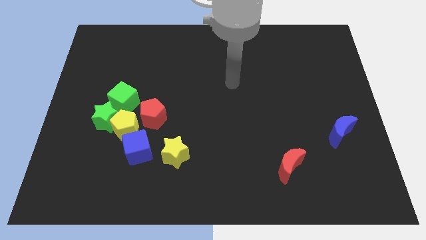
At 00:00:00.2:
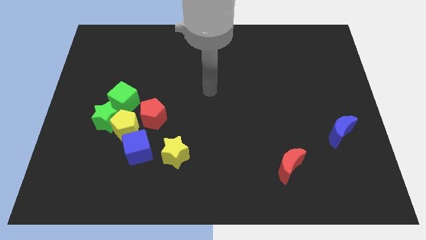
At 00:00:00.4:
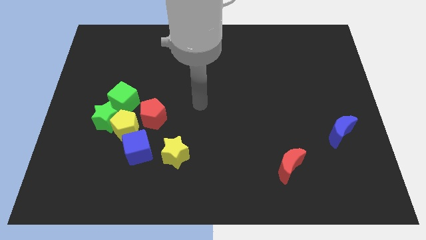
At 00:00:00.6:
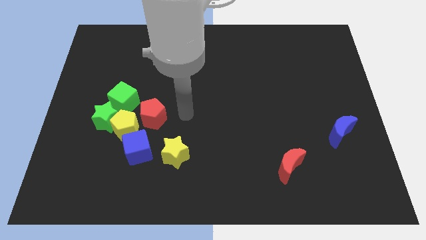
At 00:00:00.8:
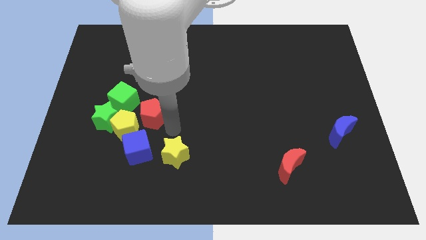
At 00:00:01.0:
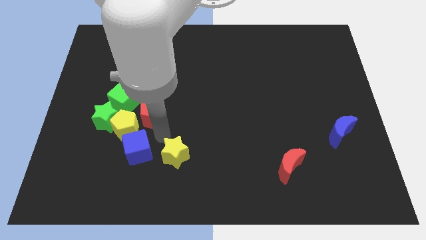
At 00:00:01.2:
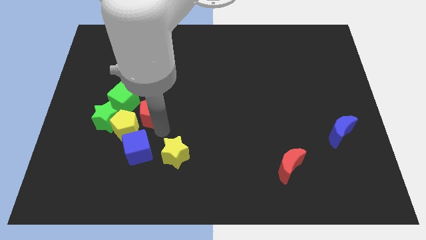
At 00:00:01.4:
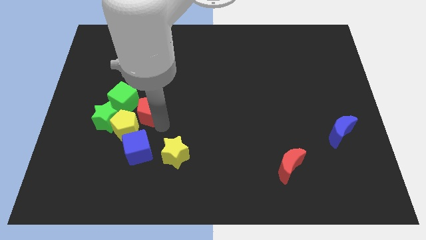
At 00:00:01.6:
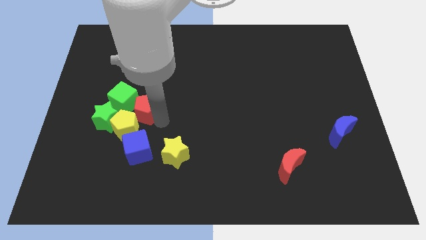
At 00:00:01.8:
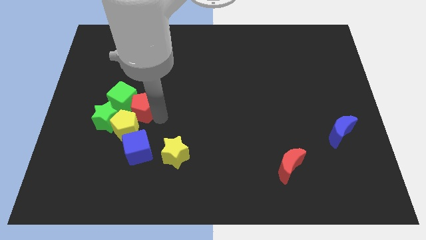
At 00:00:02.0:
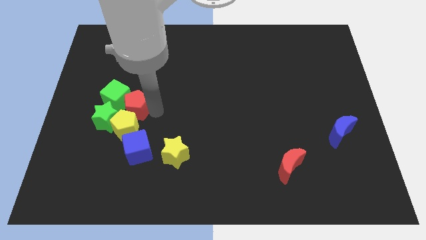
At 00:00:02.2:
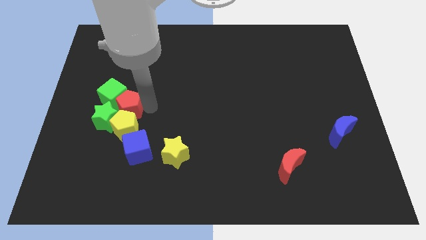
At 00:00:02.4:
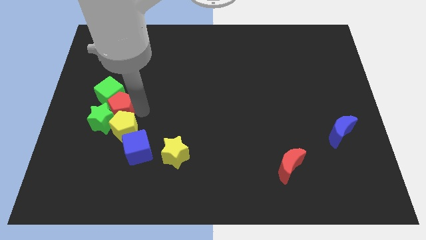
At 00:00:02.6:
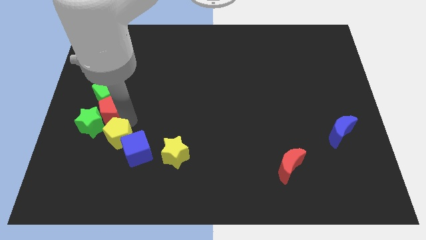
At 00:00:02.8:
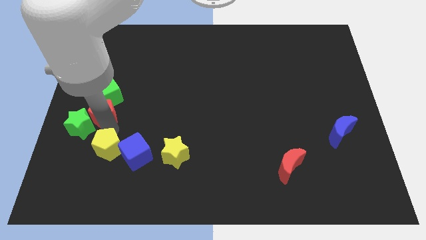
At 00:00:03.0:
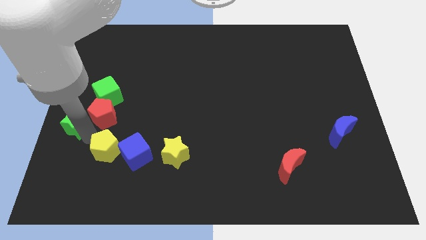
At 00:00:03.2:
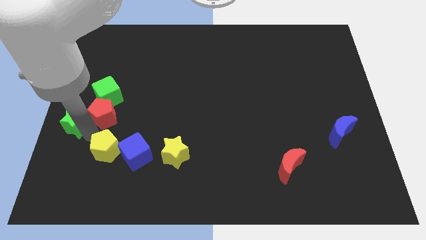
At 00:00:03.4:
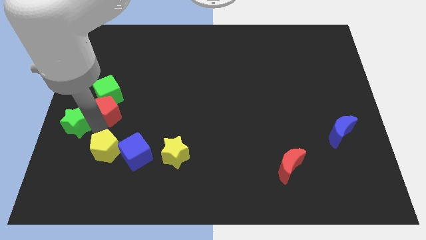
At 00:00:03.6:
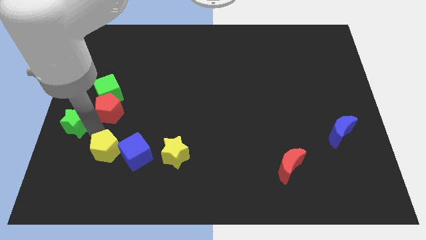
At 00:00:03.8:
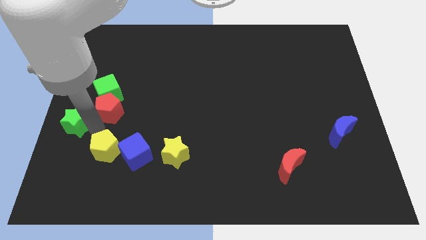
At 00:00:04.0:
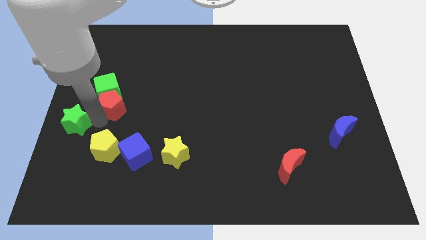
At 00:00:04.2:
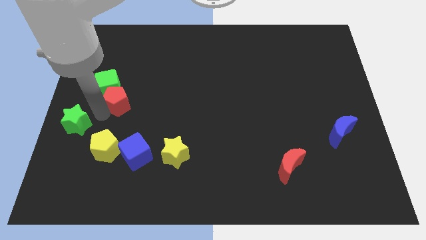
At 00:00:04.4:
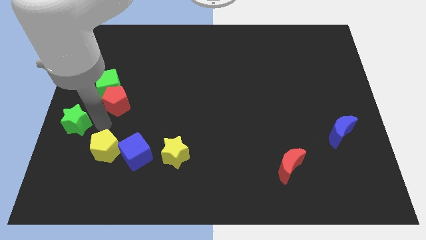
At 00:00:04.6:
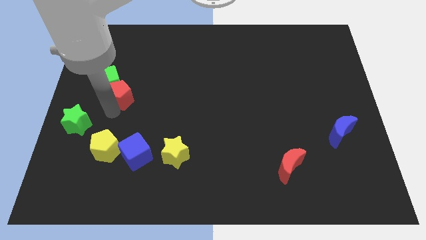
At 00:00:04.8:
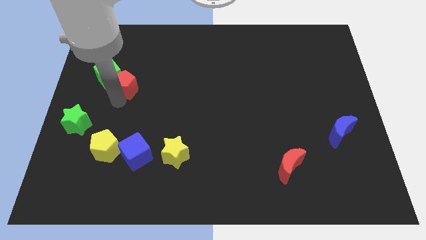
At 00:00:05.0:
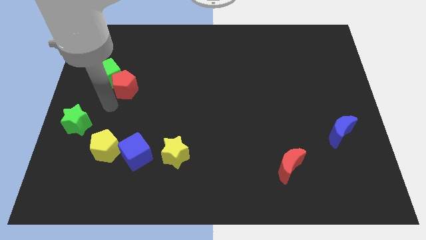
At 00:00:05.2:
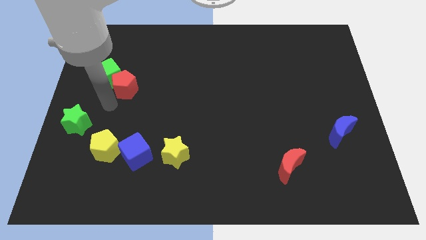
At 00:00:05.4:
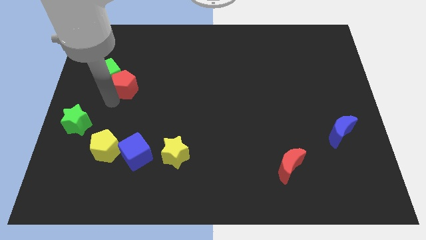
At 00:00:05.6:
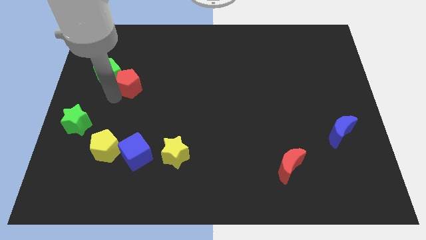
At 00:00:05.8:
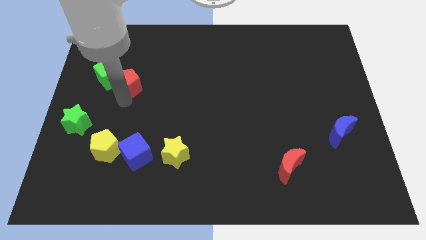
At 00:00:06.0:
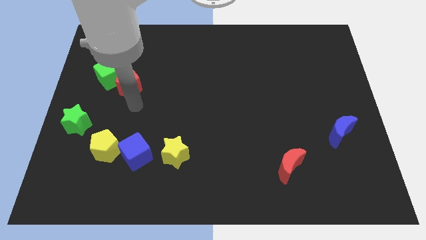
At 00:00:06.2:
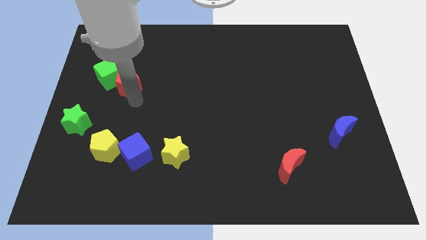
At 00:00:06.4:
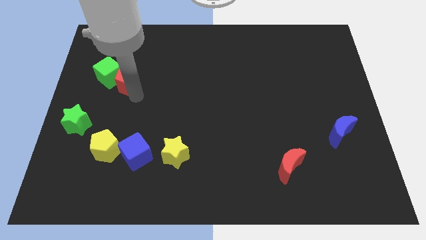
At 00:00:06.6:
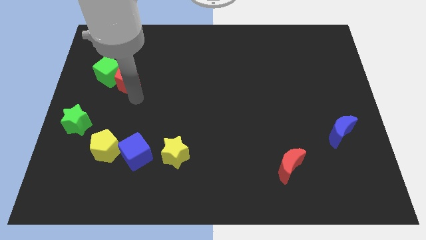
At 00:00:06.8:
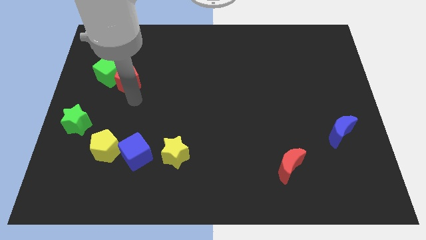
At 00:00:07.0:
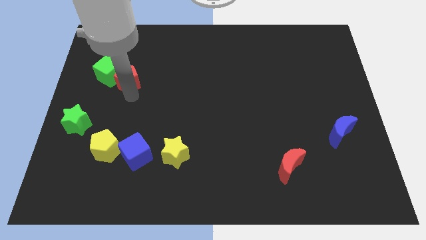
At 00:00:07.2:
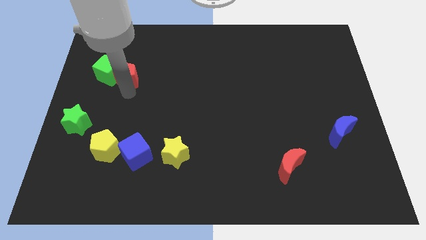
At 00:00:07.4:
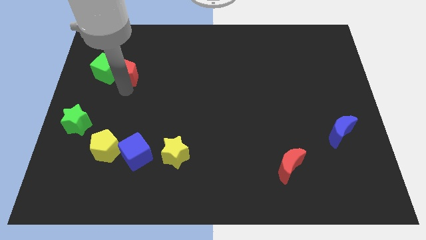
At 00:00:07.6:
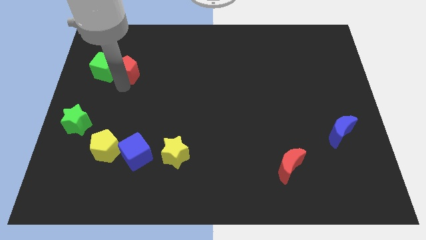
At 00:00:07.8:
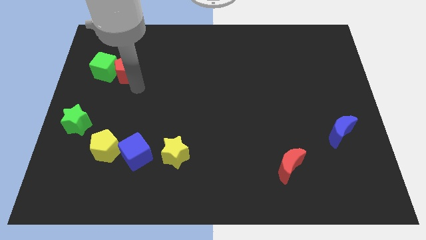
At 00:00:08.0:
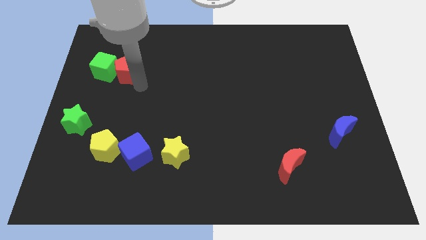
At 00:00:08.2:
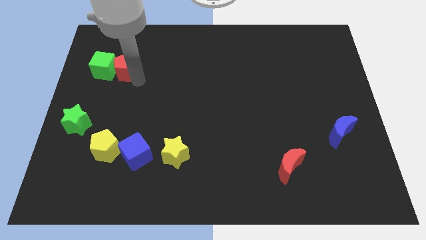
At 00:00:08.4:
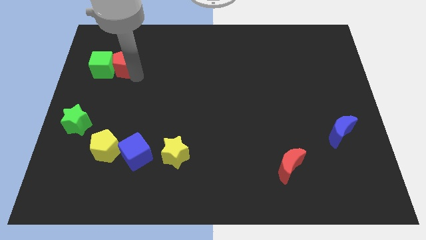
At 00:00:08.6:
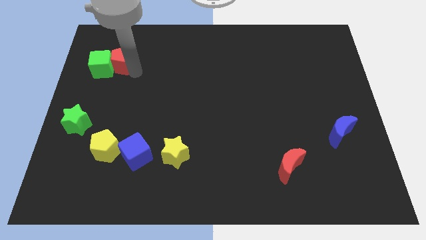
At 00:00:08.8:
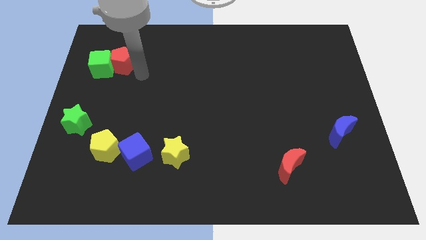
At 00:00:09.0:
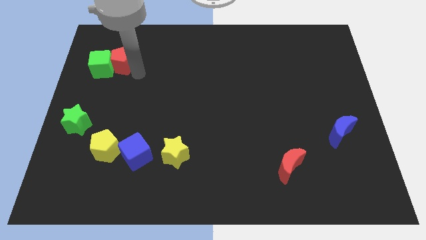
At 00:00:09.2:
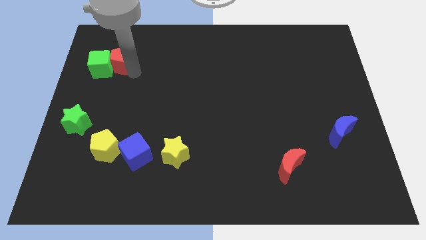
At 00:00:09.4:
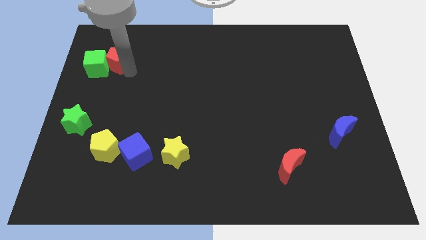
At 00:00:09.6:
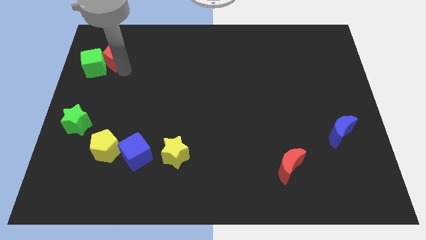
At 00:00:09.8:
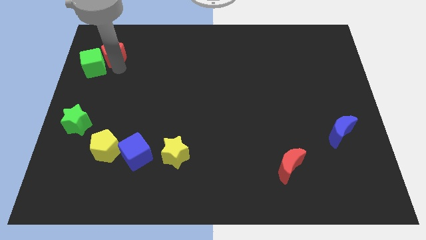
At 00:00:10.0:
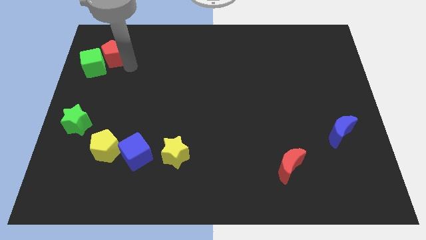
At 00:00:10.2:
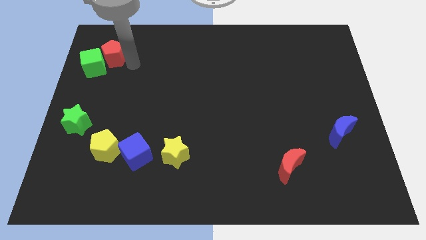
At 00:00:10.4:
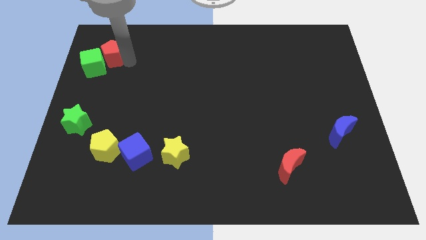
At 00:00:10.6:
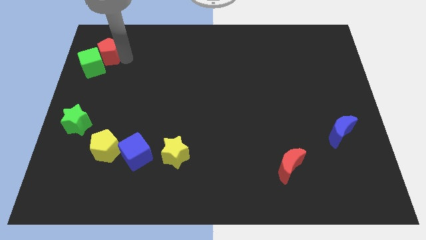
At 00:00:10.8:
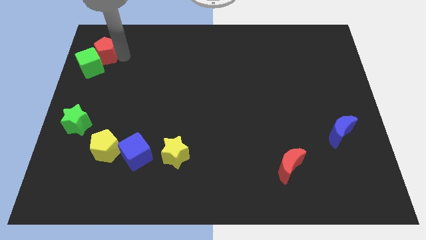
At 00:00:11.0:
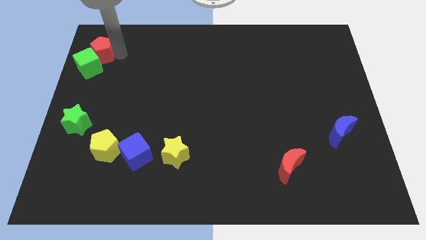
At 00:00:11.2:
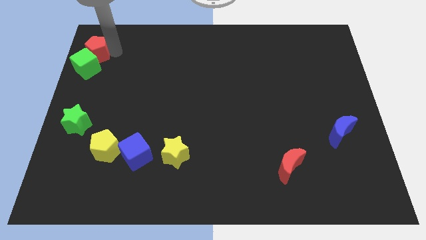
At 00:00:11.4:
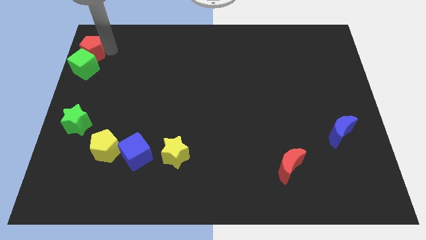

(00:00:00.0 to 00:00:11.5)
push the red pentagon to the top left of the board

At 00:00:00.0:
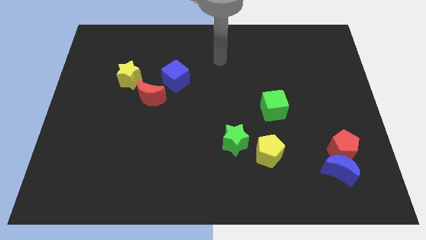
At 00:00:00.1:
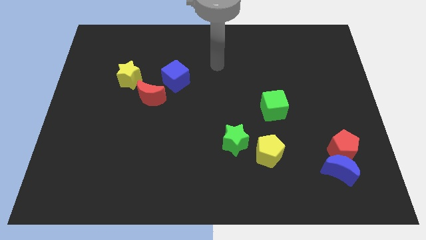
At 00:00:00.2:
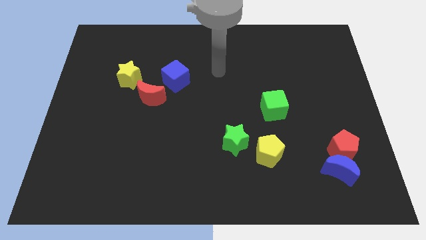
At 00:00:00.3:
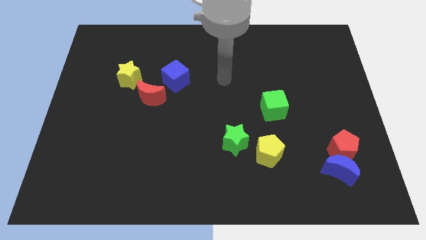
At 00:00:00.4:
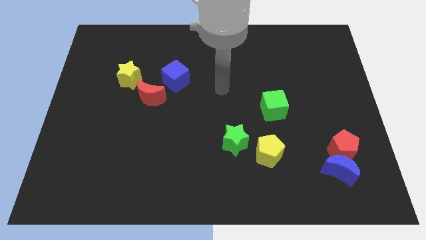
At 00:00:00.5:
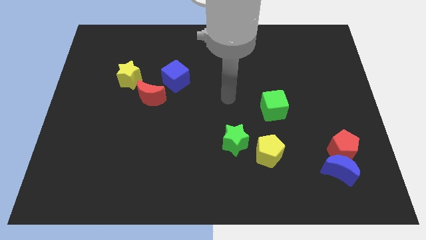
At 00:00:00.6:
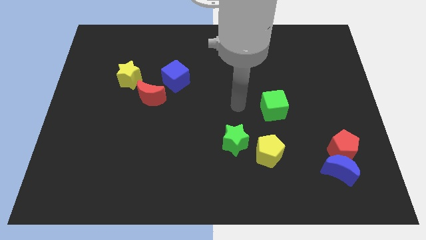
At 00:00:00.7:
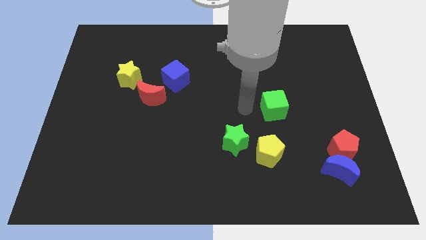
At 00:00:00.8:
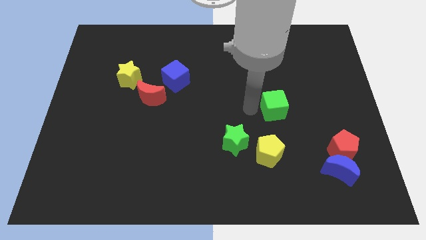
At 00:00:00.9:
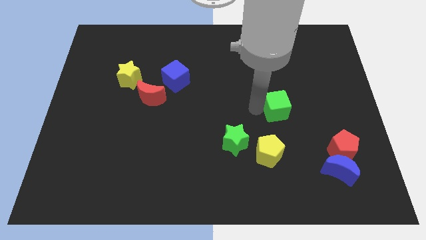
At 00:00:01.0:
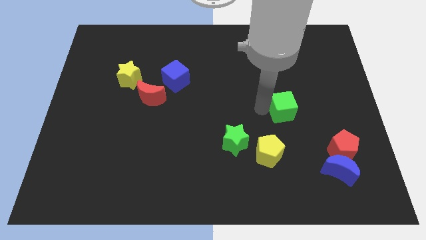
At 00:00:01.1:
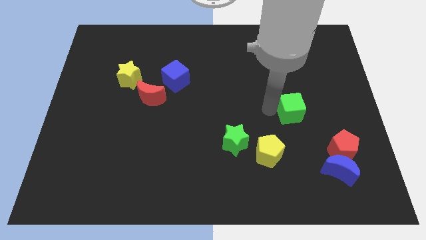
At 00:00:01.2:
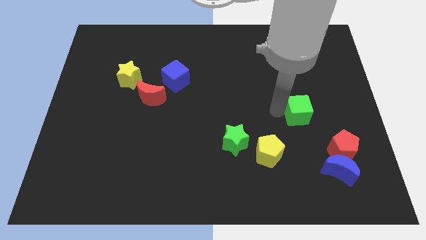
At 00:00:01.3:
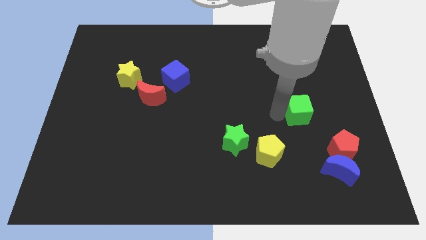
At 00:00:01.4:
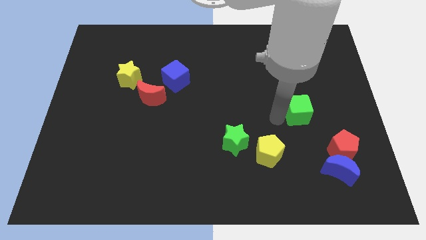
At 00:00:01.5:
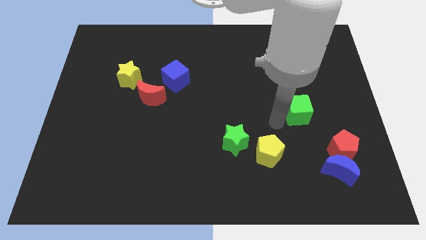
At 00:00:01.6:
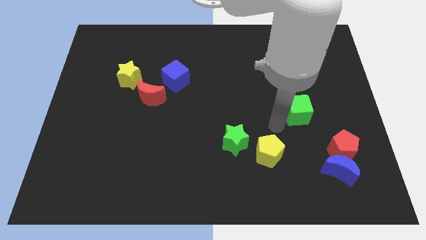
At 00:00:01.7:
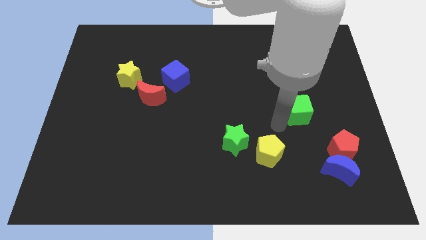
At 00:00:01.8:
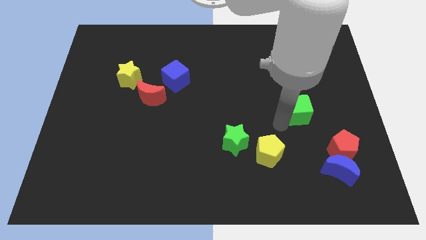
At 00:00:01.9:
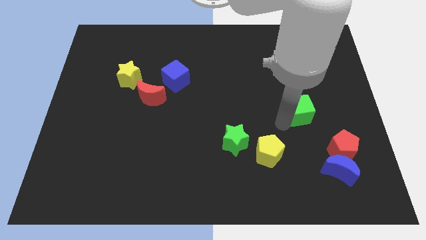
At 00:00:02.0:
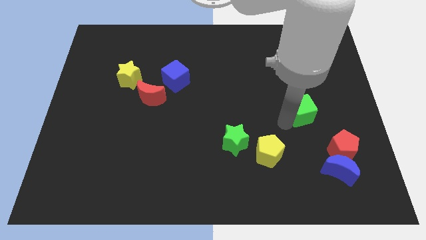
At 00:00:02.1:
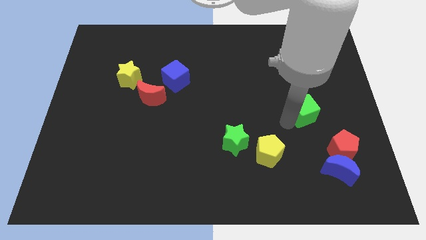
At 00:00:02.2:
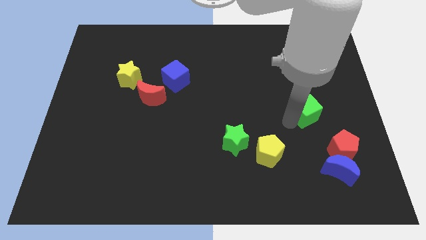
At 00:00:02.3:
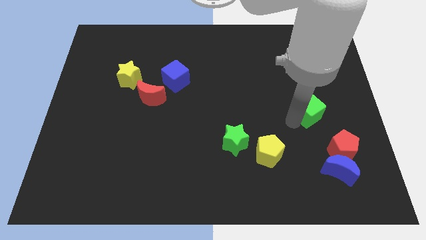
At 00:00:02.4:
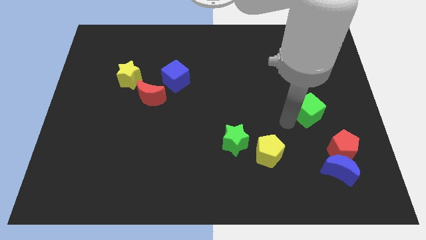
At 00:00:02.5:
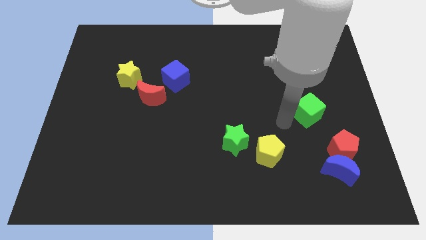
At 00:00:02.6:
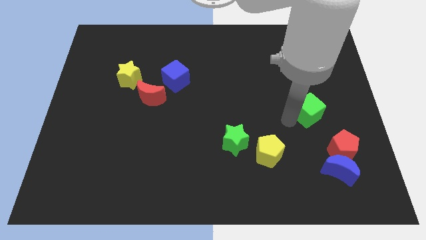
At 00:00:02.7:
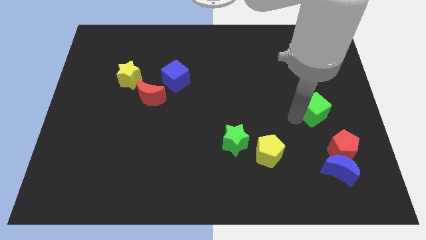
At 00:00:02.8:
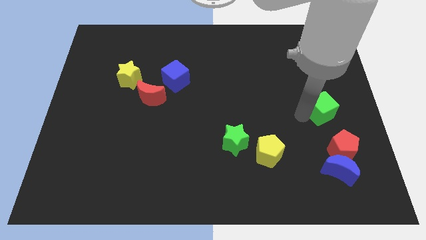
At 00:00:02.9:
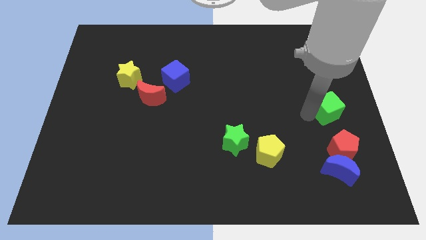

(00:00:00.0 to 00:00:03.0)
put the green cube to the right side of the board
